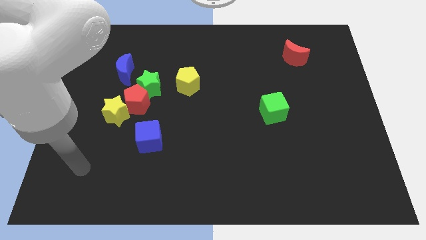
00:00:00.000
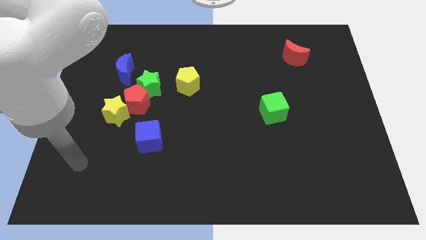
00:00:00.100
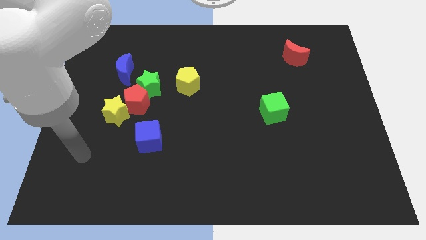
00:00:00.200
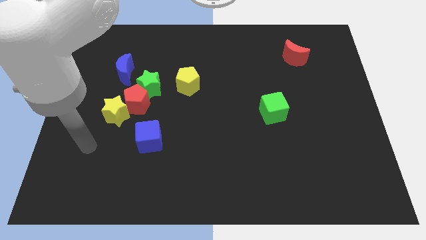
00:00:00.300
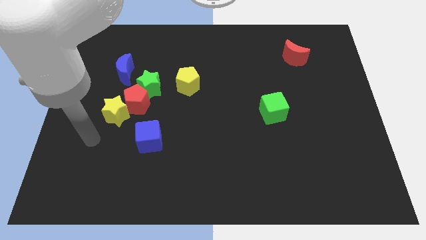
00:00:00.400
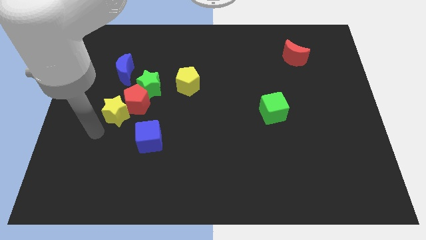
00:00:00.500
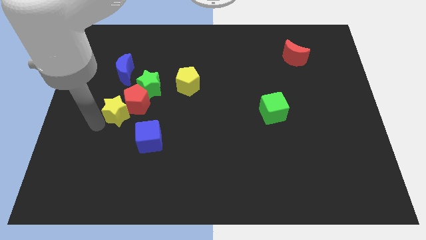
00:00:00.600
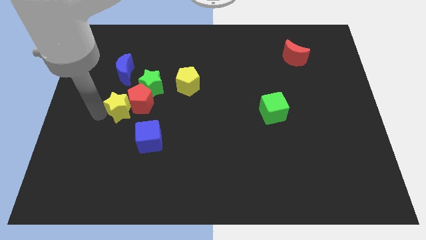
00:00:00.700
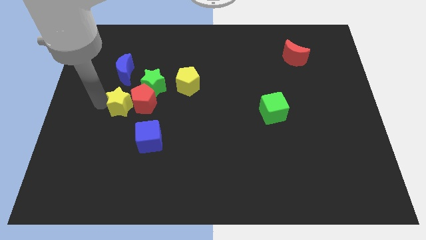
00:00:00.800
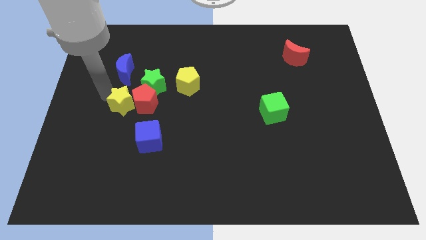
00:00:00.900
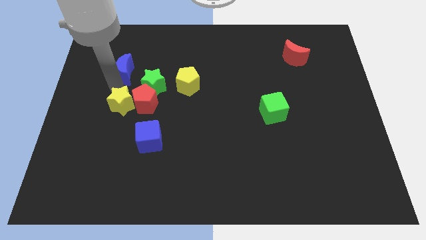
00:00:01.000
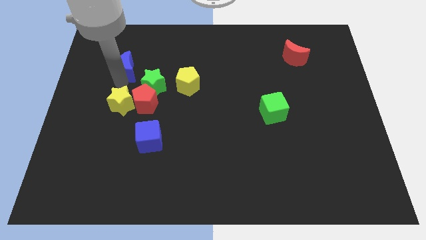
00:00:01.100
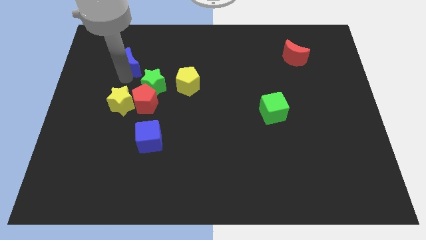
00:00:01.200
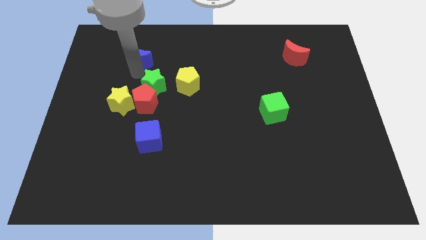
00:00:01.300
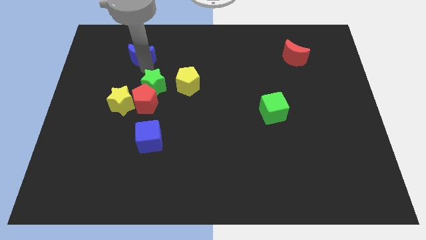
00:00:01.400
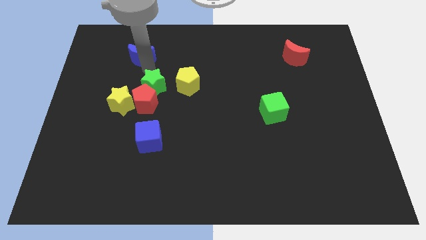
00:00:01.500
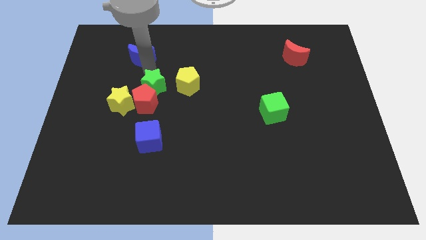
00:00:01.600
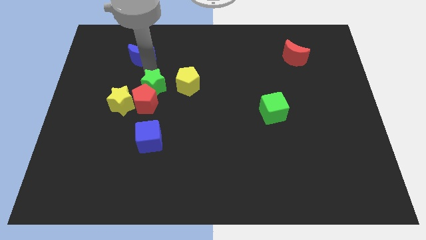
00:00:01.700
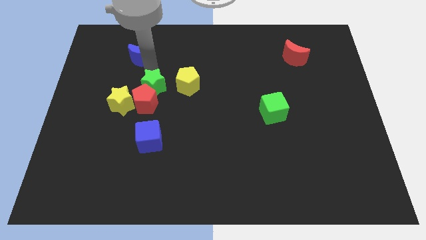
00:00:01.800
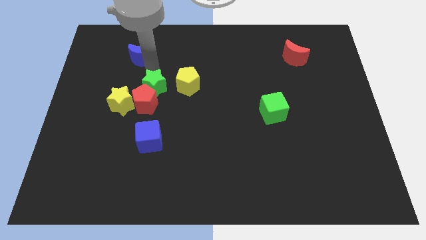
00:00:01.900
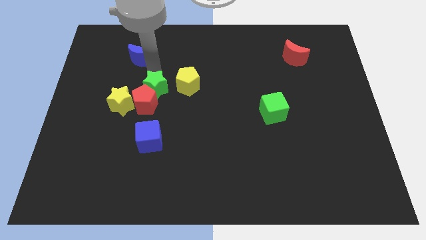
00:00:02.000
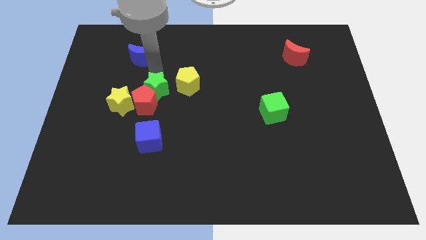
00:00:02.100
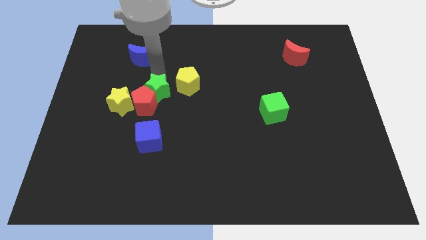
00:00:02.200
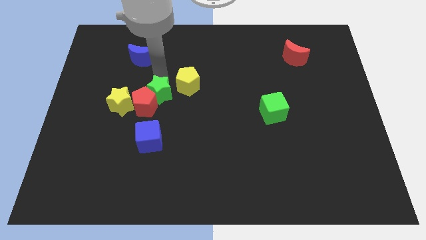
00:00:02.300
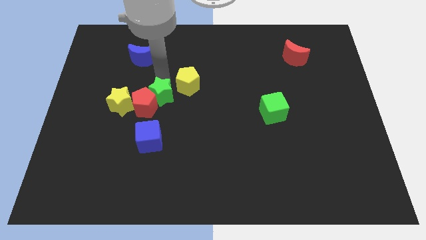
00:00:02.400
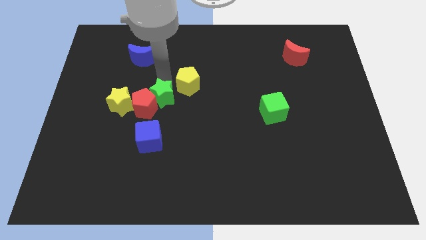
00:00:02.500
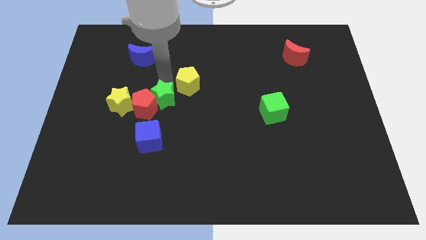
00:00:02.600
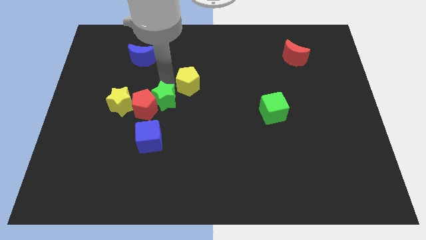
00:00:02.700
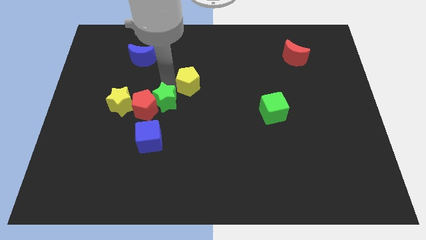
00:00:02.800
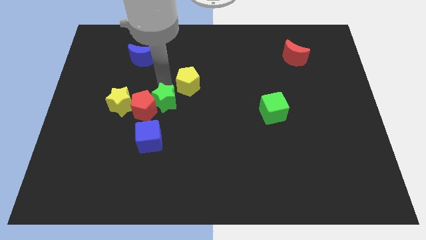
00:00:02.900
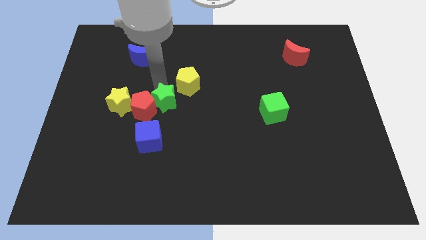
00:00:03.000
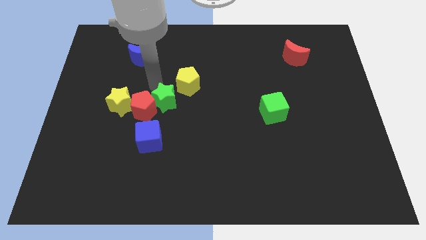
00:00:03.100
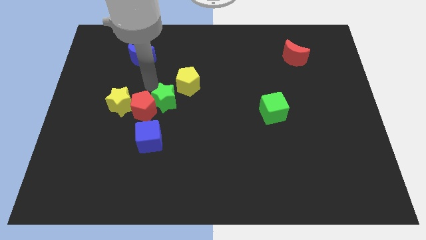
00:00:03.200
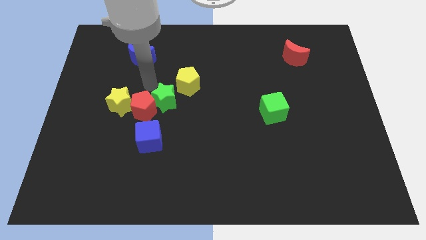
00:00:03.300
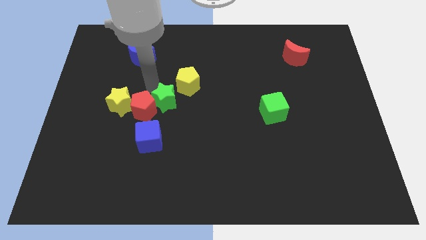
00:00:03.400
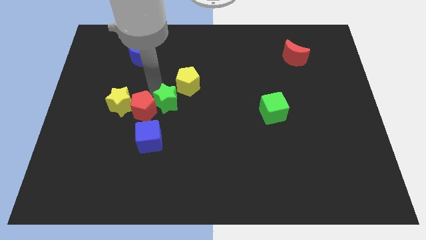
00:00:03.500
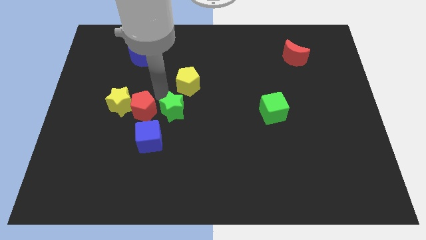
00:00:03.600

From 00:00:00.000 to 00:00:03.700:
slide the green star diagonally downwards and to the right slightly

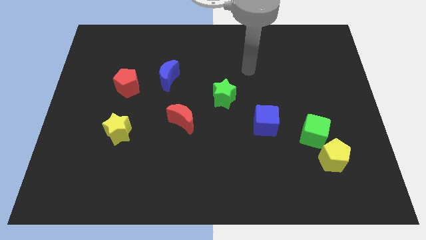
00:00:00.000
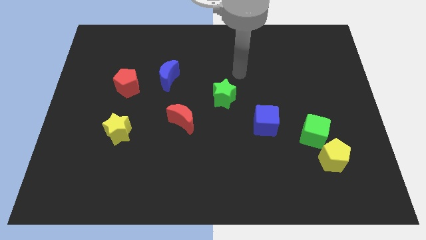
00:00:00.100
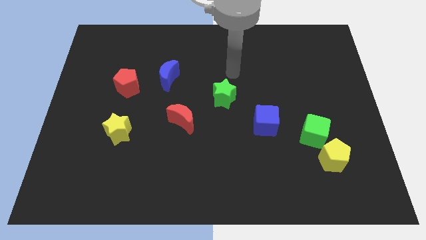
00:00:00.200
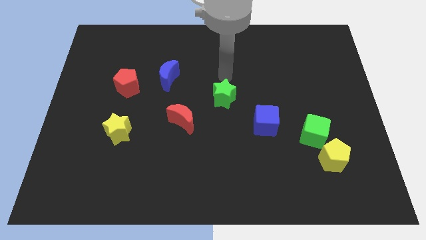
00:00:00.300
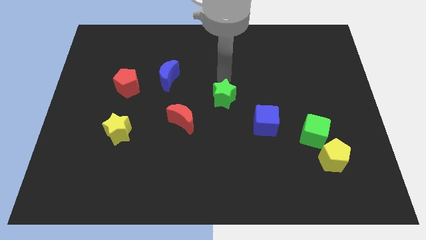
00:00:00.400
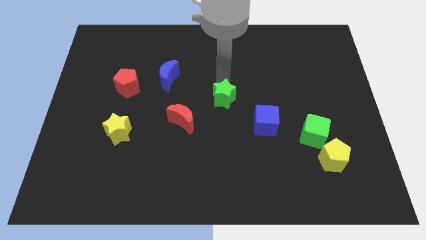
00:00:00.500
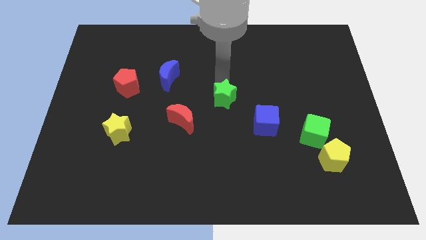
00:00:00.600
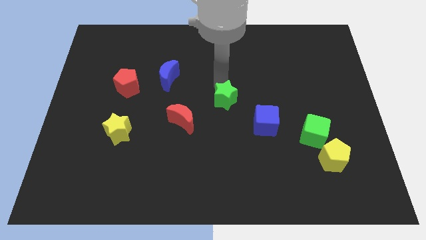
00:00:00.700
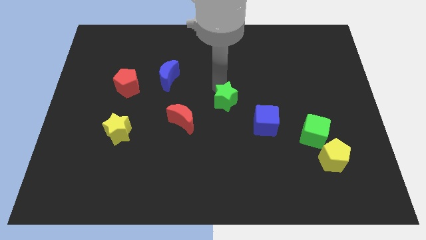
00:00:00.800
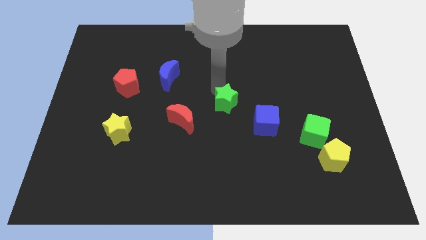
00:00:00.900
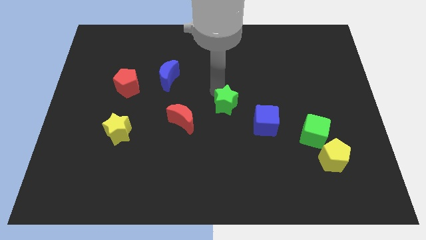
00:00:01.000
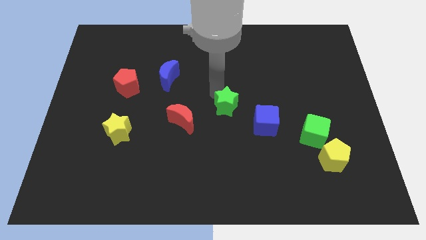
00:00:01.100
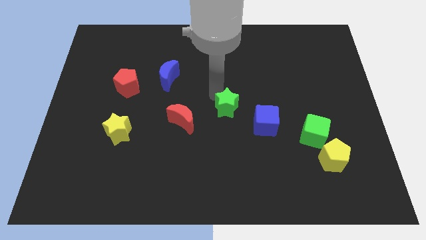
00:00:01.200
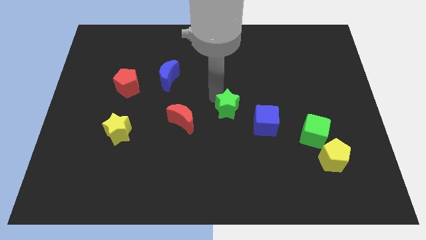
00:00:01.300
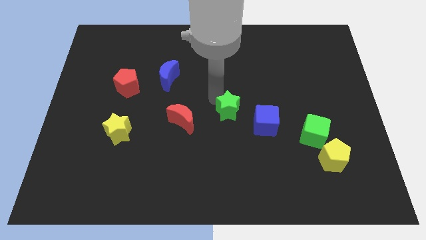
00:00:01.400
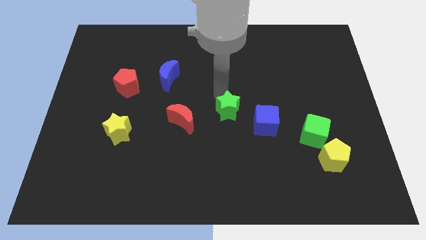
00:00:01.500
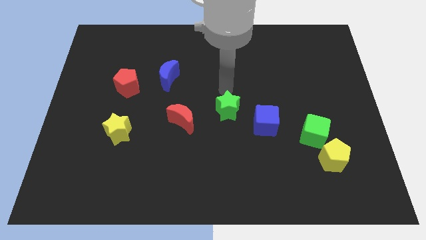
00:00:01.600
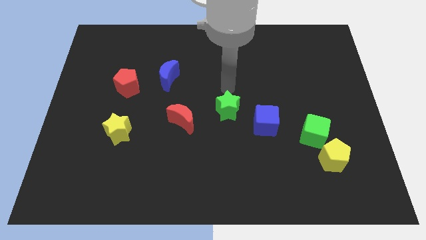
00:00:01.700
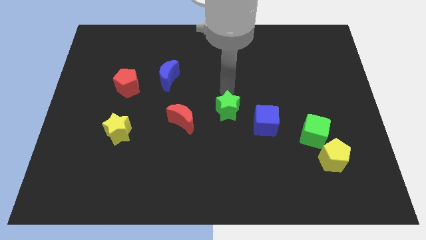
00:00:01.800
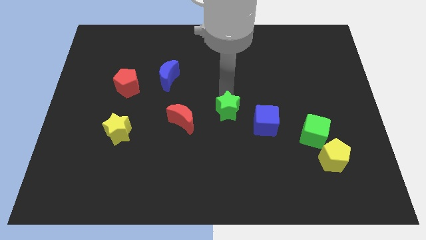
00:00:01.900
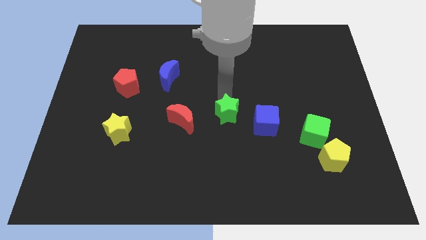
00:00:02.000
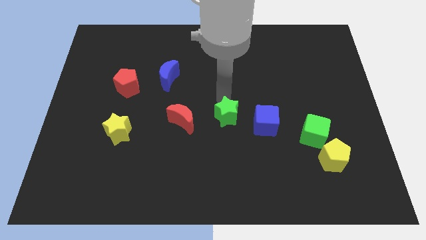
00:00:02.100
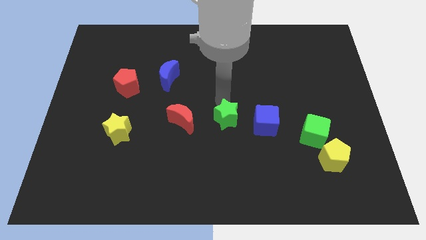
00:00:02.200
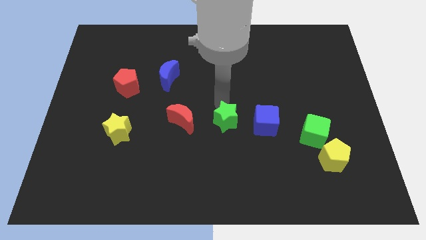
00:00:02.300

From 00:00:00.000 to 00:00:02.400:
push the green star somewhat downwards

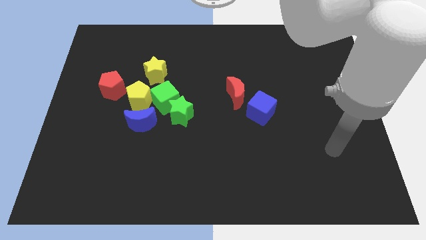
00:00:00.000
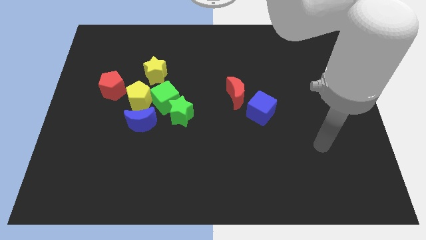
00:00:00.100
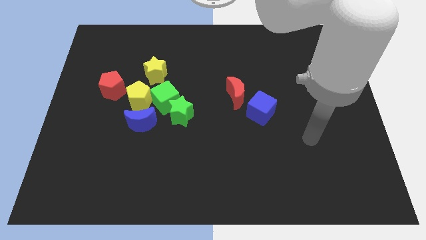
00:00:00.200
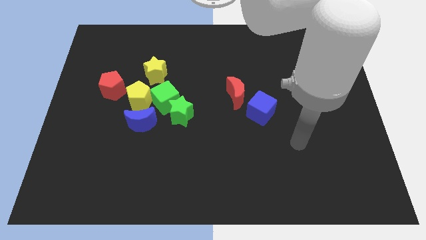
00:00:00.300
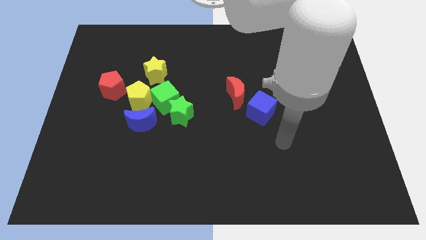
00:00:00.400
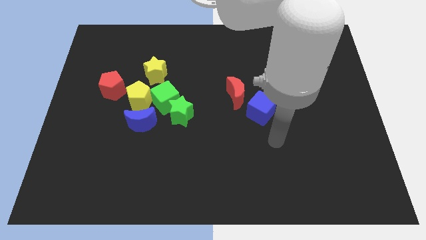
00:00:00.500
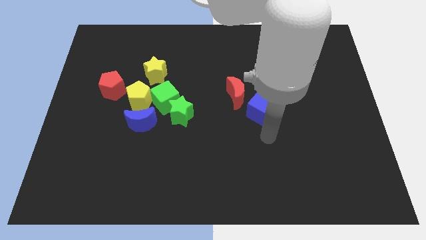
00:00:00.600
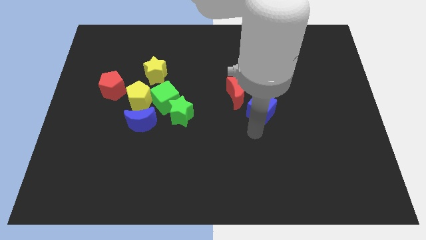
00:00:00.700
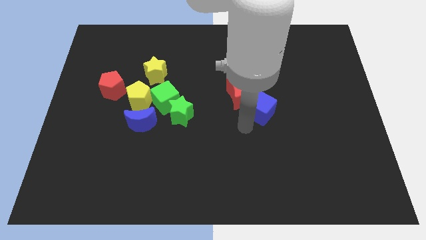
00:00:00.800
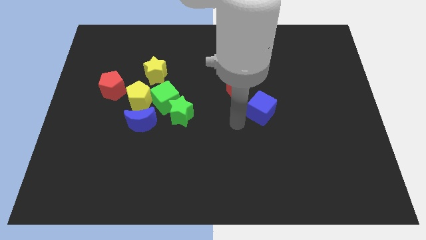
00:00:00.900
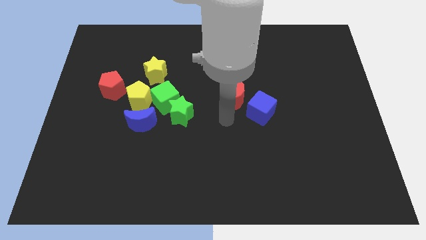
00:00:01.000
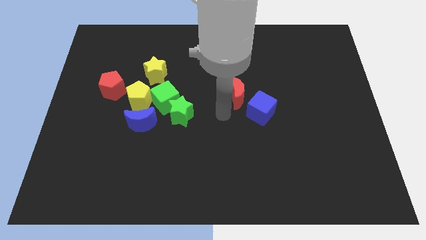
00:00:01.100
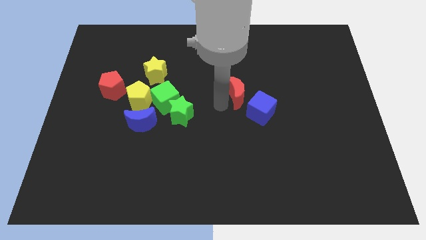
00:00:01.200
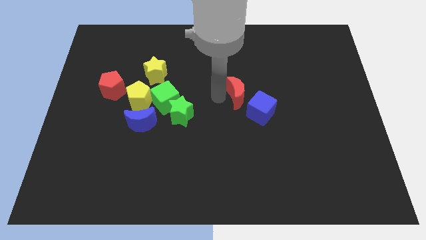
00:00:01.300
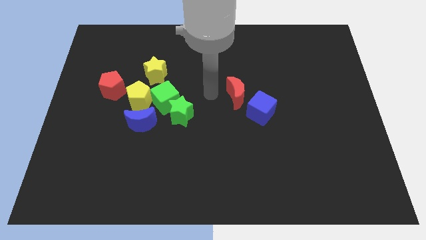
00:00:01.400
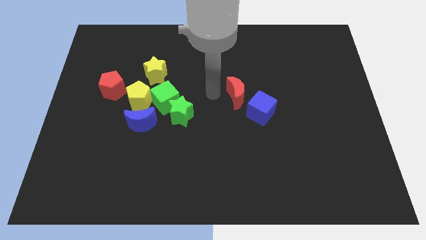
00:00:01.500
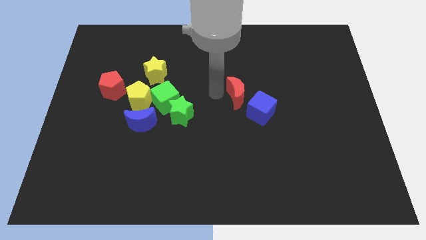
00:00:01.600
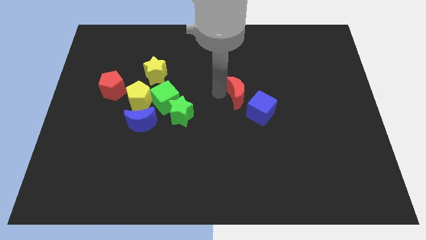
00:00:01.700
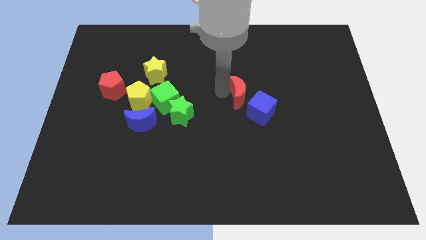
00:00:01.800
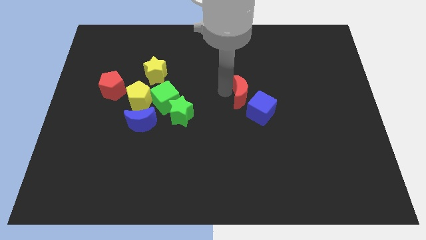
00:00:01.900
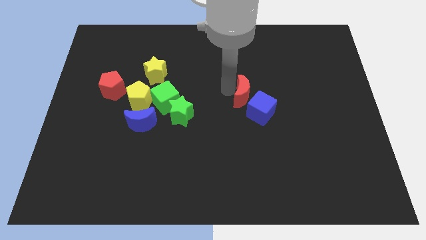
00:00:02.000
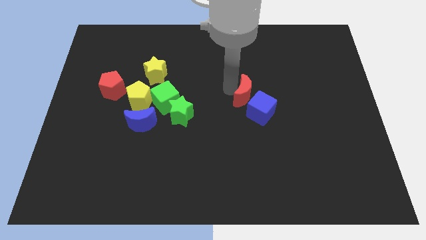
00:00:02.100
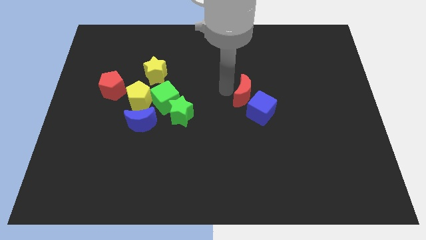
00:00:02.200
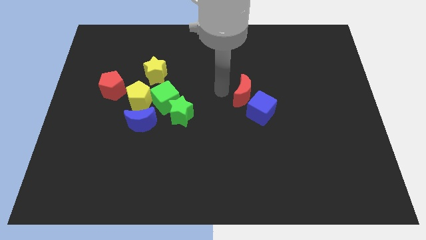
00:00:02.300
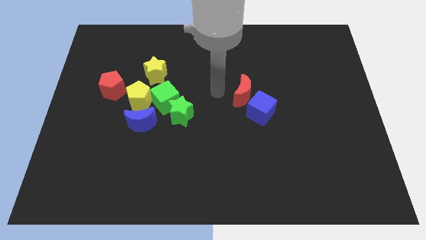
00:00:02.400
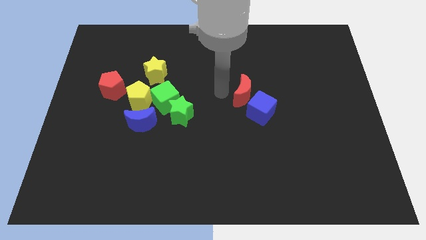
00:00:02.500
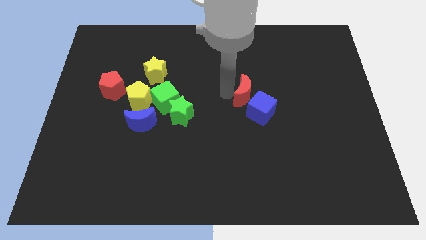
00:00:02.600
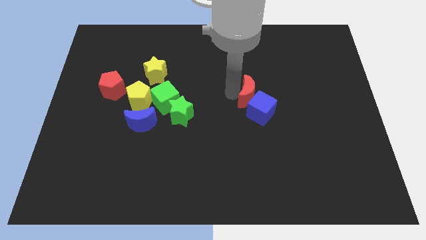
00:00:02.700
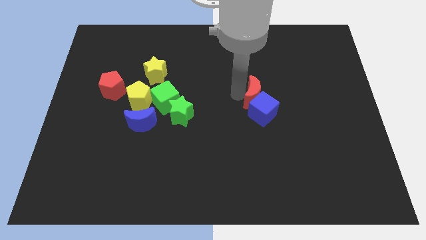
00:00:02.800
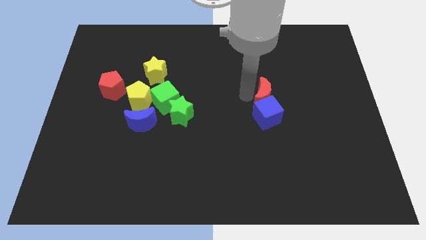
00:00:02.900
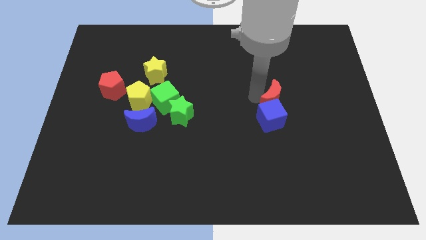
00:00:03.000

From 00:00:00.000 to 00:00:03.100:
push the red moon a bit to the right
